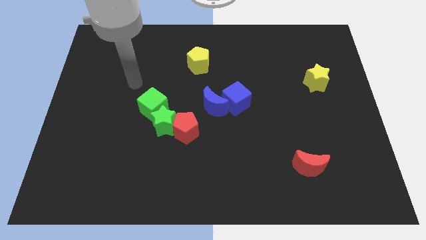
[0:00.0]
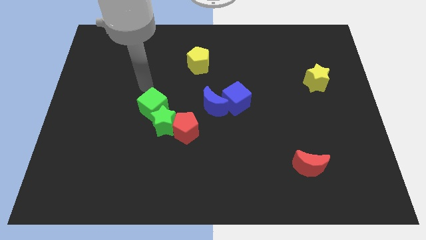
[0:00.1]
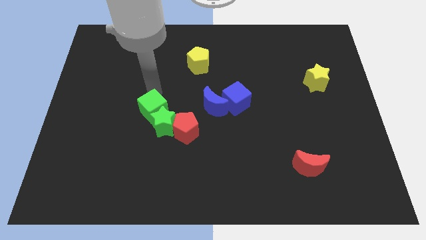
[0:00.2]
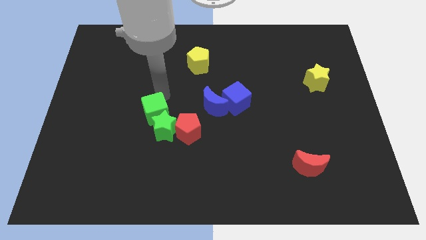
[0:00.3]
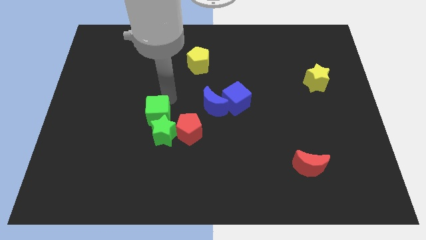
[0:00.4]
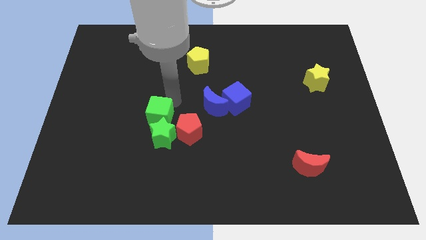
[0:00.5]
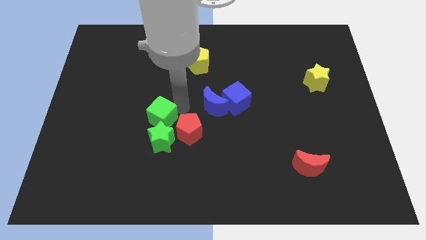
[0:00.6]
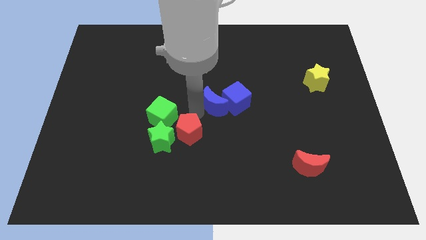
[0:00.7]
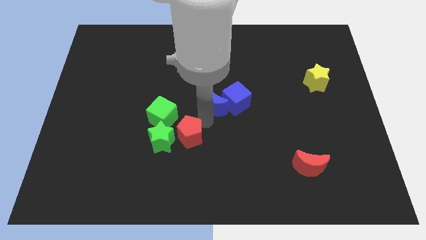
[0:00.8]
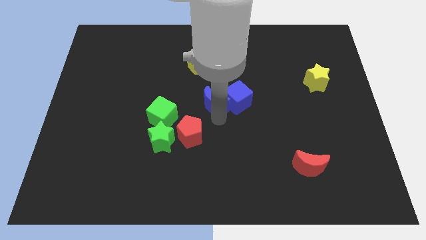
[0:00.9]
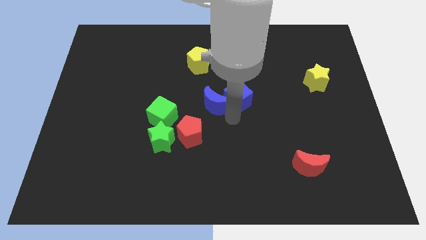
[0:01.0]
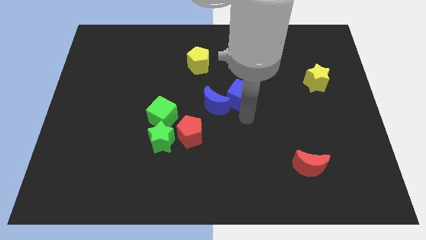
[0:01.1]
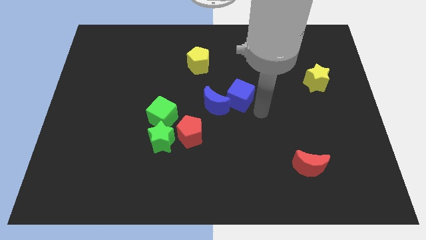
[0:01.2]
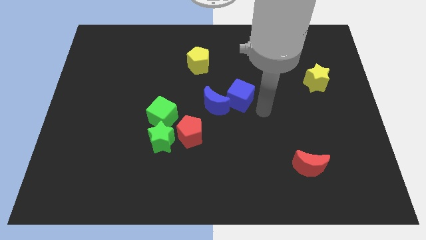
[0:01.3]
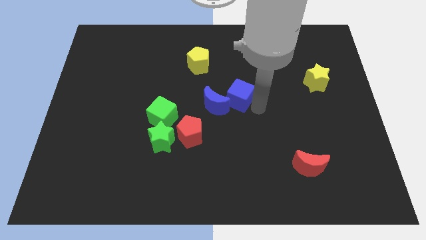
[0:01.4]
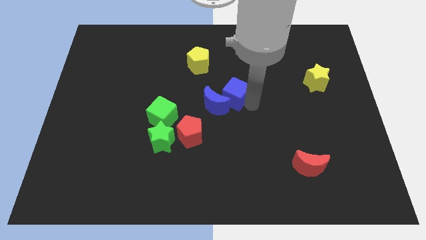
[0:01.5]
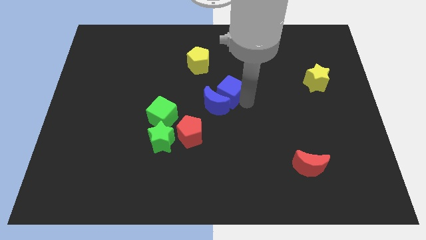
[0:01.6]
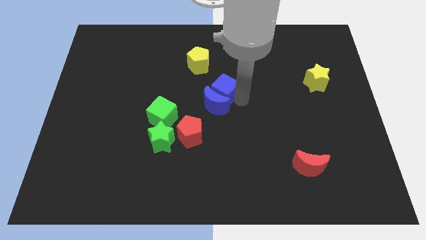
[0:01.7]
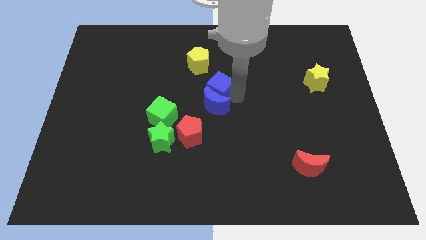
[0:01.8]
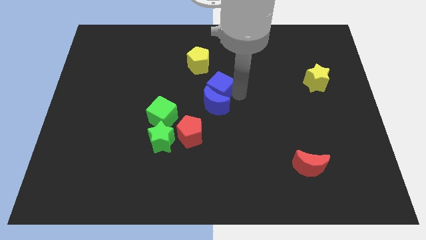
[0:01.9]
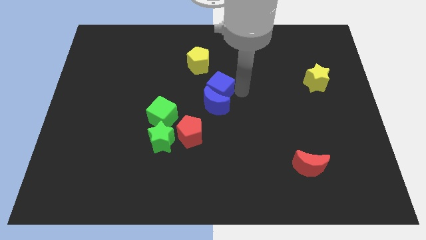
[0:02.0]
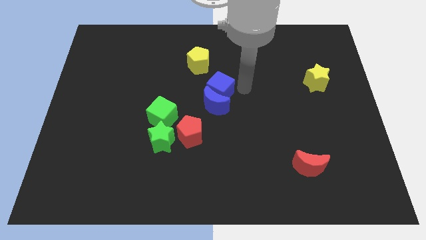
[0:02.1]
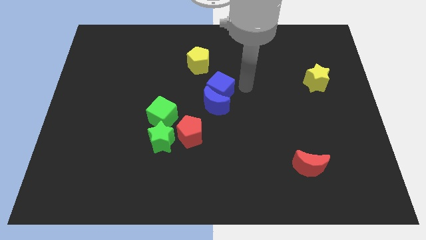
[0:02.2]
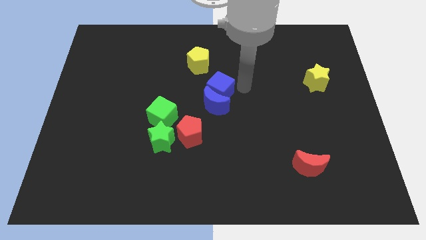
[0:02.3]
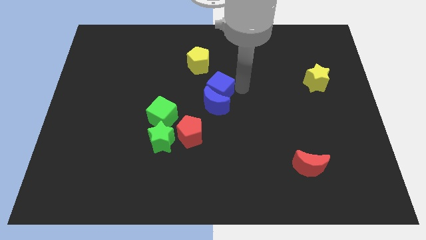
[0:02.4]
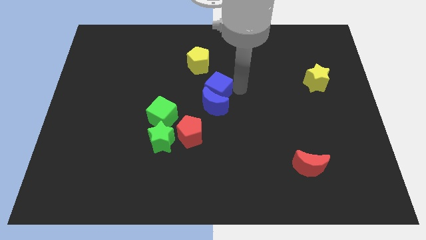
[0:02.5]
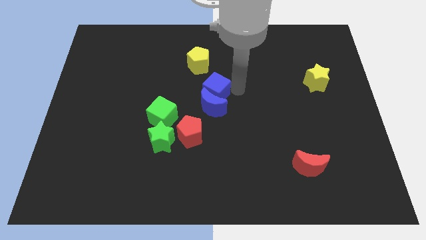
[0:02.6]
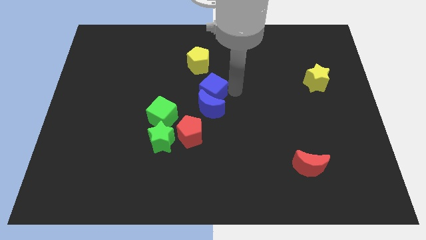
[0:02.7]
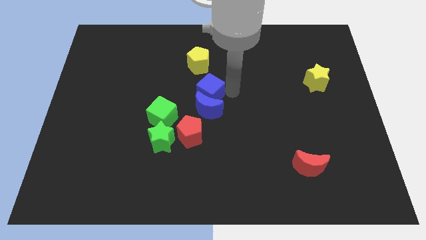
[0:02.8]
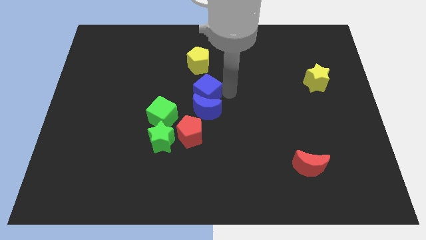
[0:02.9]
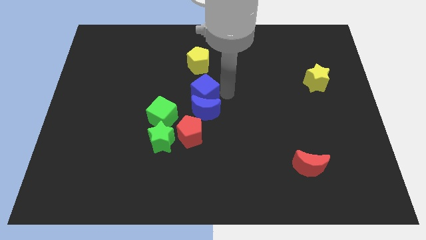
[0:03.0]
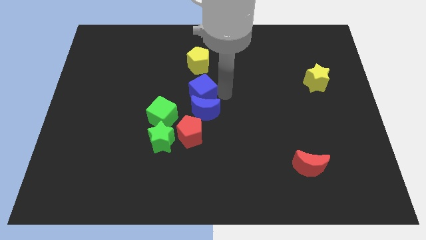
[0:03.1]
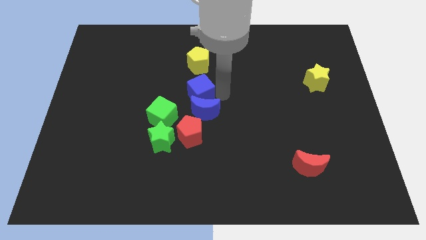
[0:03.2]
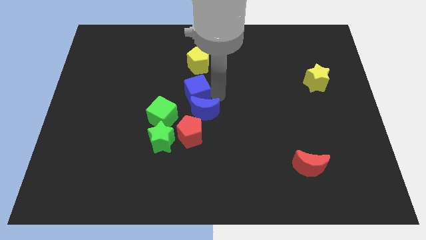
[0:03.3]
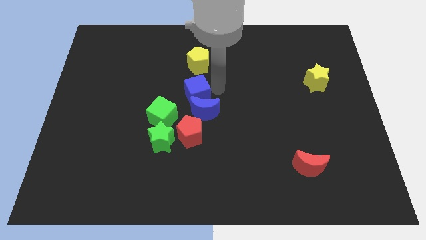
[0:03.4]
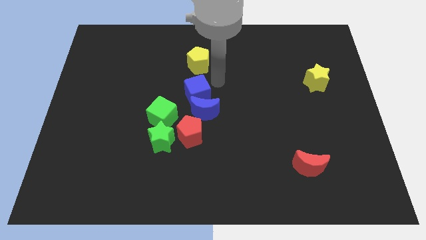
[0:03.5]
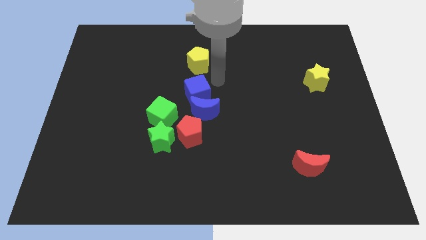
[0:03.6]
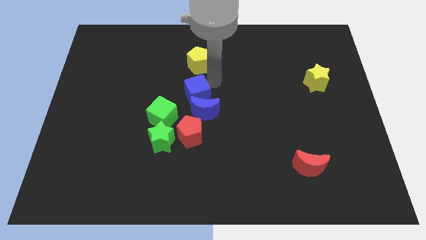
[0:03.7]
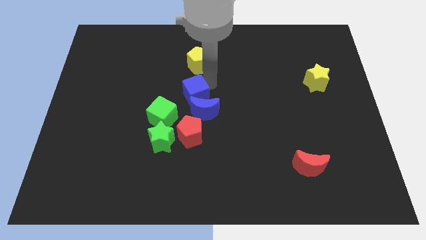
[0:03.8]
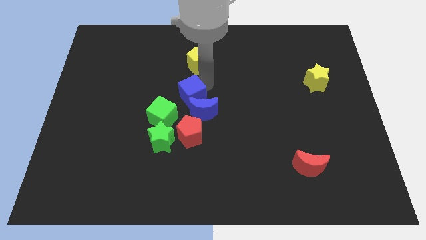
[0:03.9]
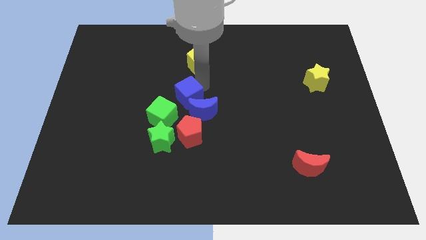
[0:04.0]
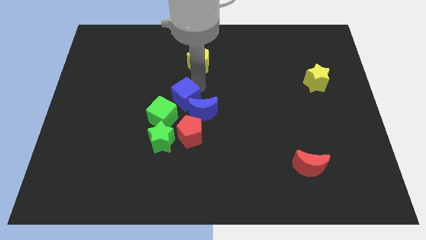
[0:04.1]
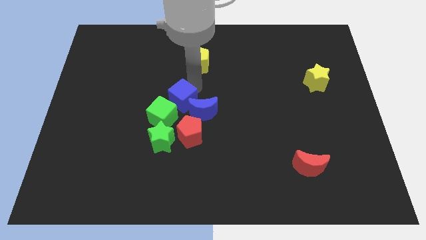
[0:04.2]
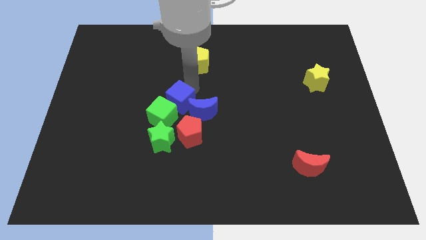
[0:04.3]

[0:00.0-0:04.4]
push the blue cube to the green cube

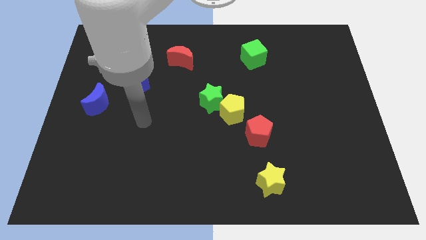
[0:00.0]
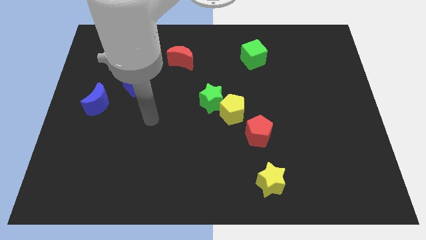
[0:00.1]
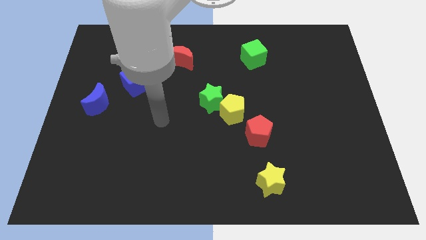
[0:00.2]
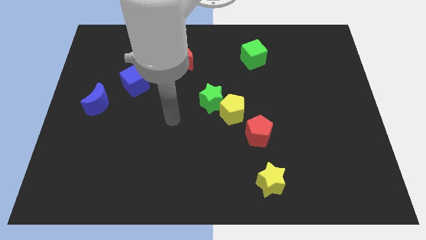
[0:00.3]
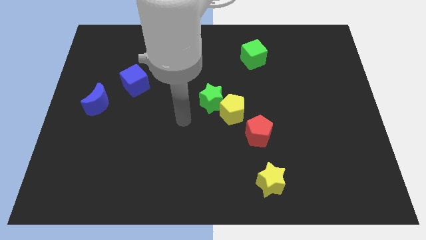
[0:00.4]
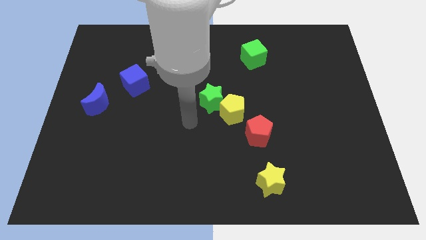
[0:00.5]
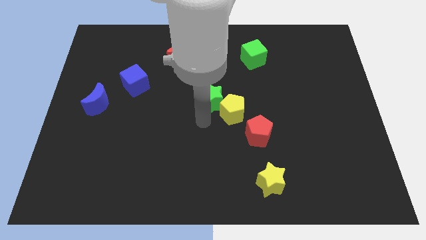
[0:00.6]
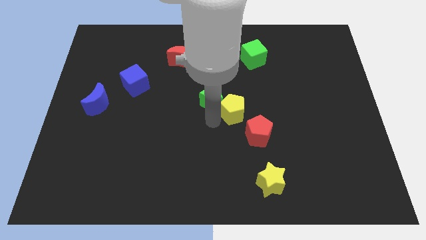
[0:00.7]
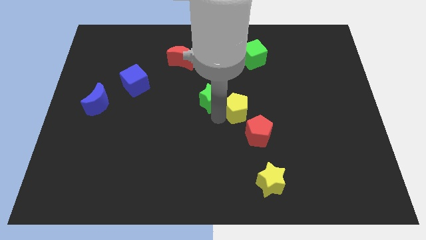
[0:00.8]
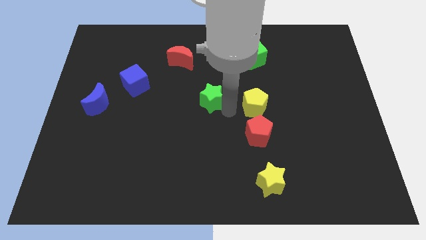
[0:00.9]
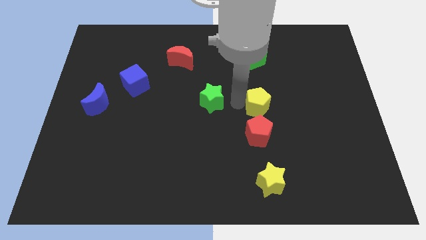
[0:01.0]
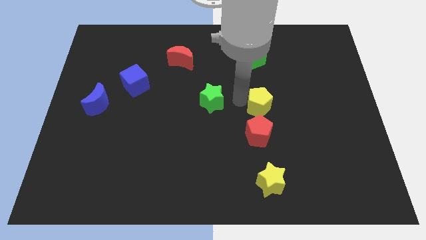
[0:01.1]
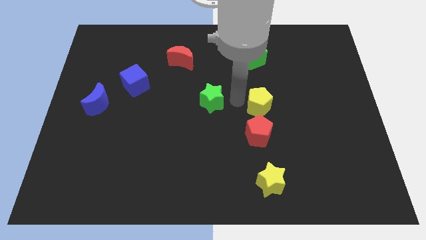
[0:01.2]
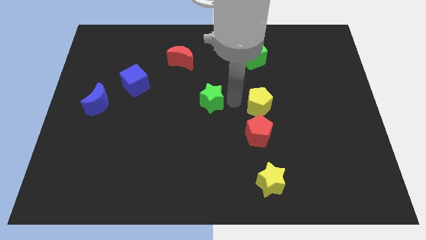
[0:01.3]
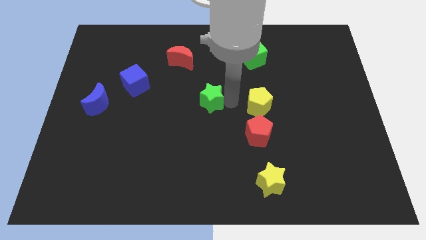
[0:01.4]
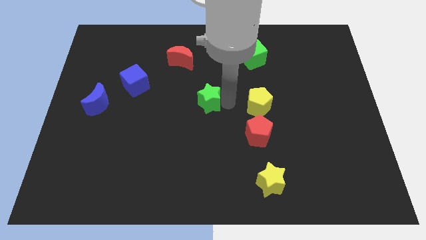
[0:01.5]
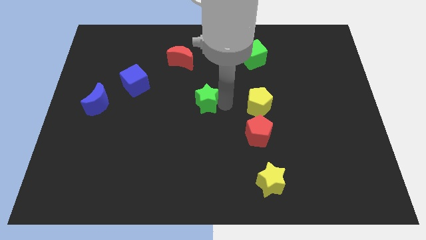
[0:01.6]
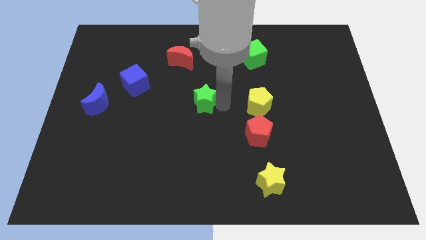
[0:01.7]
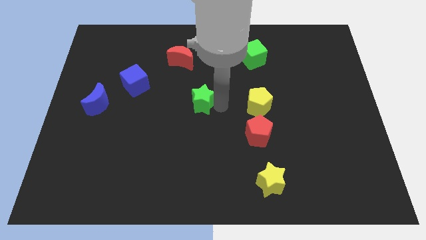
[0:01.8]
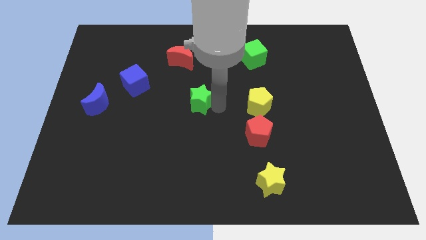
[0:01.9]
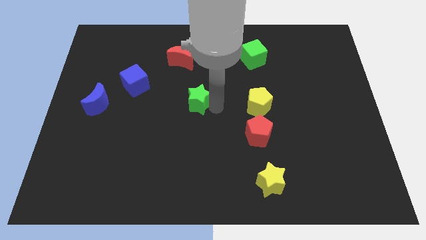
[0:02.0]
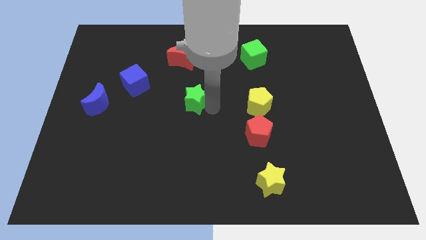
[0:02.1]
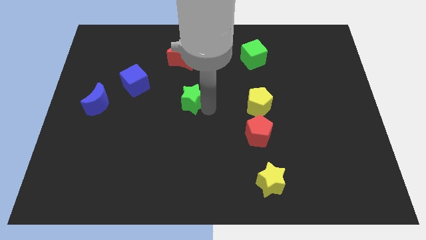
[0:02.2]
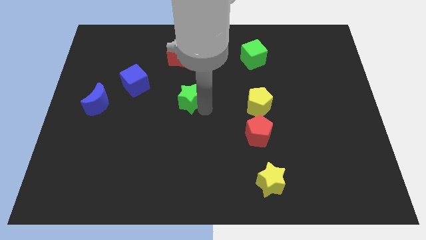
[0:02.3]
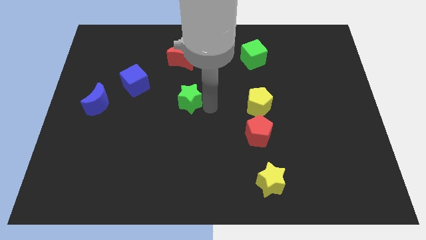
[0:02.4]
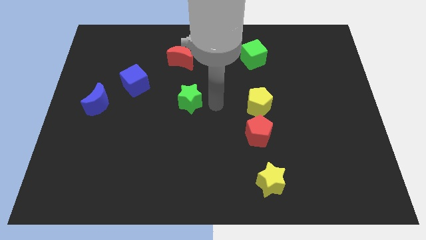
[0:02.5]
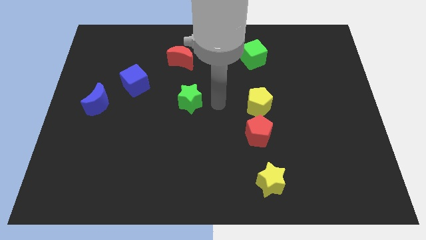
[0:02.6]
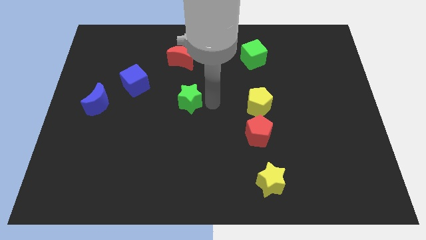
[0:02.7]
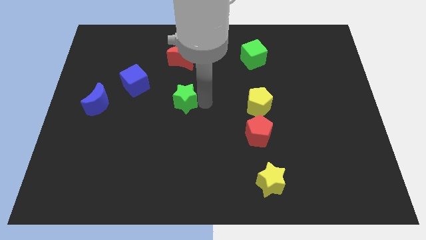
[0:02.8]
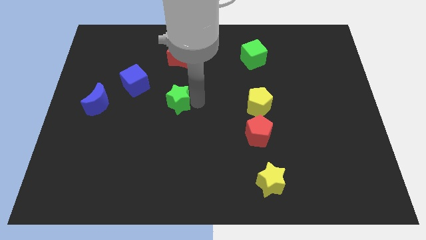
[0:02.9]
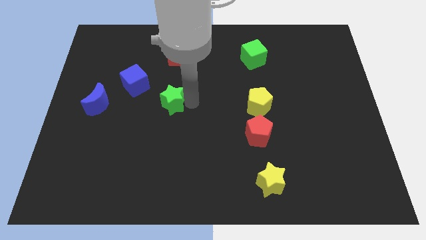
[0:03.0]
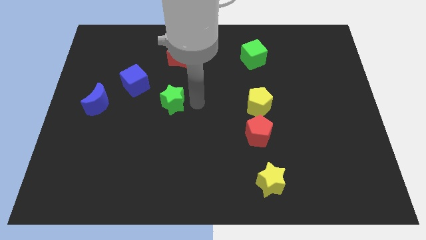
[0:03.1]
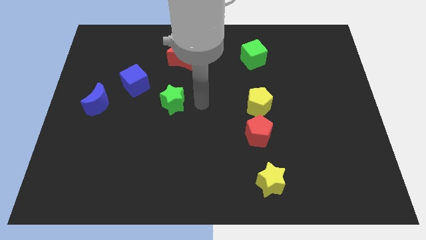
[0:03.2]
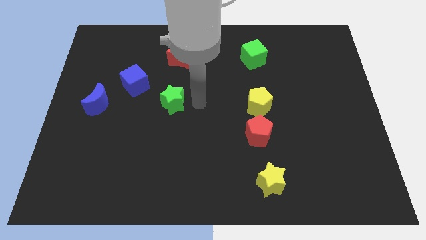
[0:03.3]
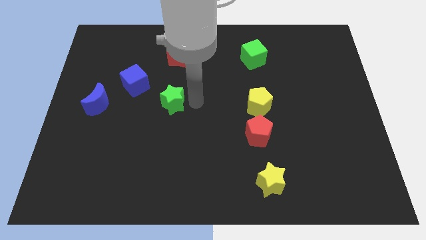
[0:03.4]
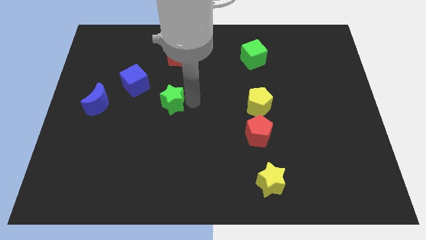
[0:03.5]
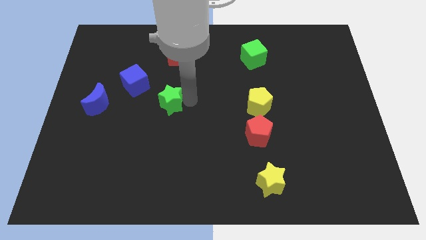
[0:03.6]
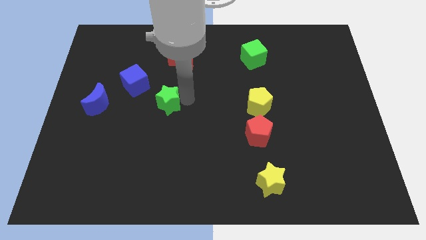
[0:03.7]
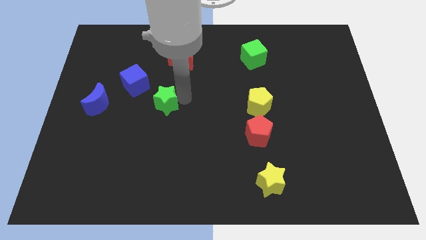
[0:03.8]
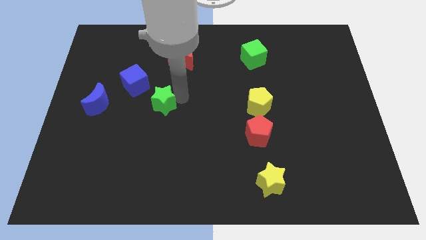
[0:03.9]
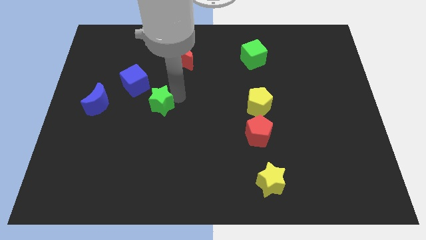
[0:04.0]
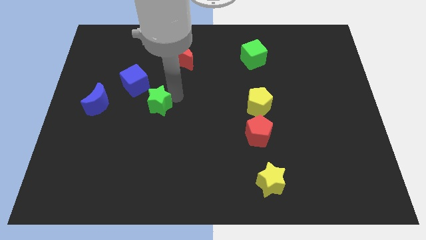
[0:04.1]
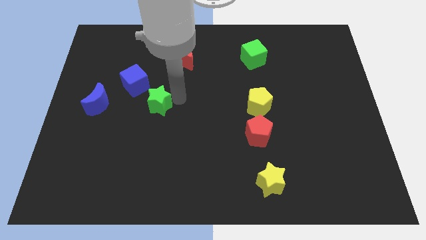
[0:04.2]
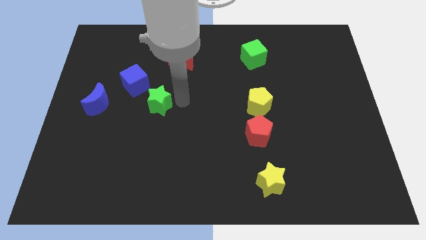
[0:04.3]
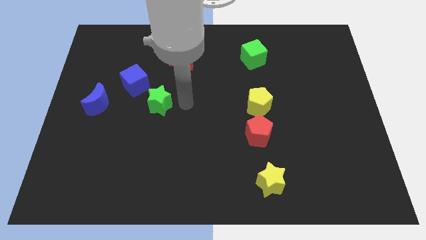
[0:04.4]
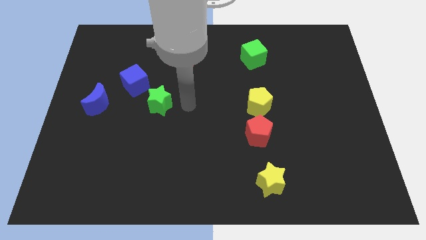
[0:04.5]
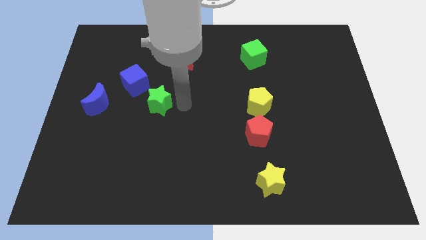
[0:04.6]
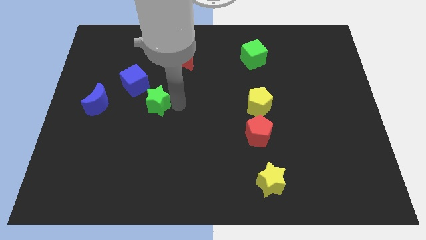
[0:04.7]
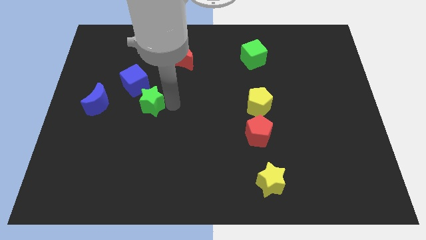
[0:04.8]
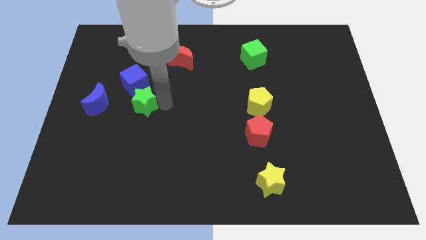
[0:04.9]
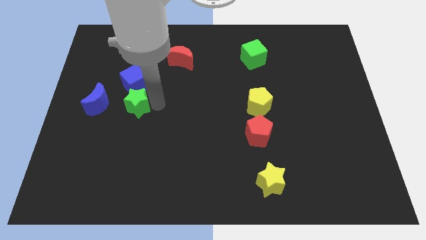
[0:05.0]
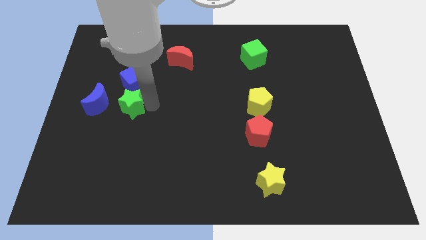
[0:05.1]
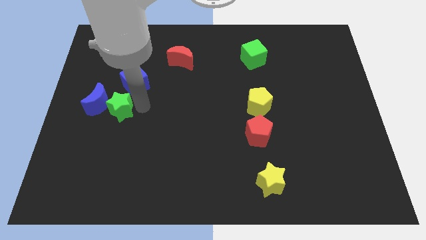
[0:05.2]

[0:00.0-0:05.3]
push the green star next to the blue moon
